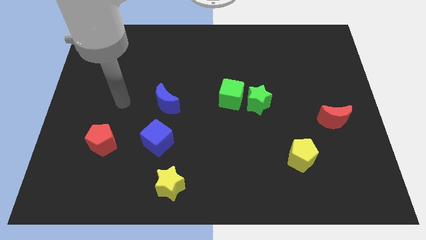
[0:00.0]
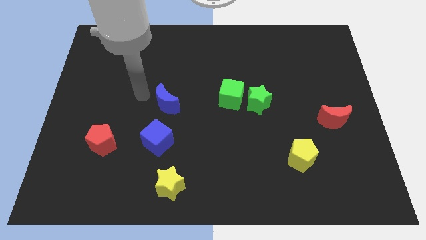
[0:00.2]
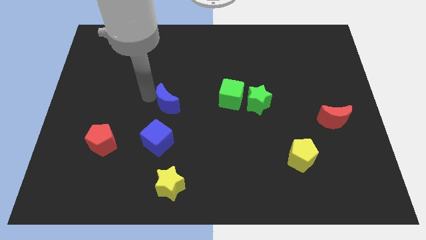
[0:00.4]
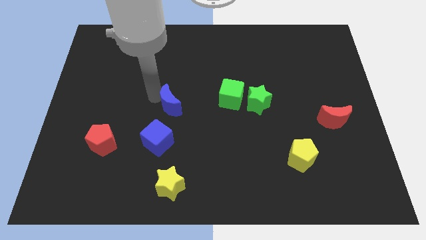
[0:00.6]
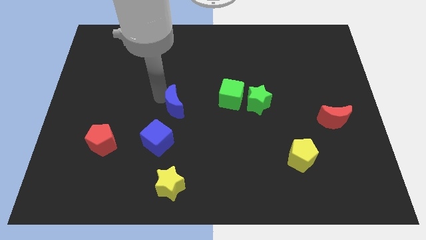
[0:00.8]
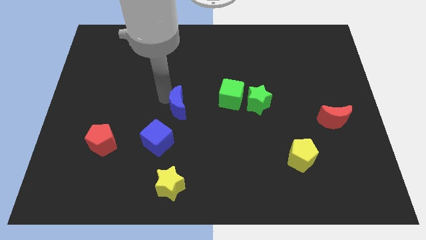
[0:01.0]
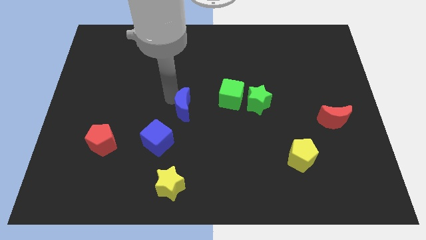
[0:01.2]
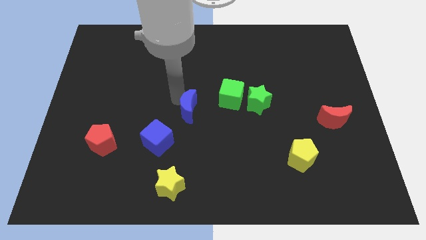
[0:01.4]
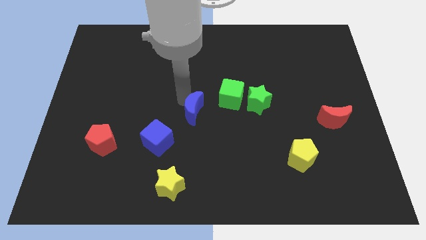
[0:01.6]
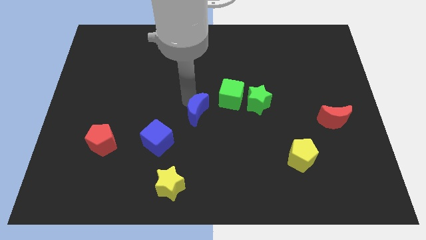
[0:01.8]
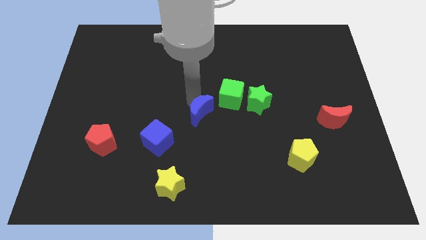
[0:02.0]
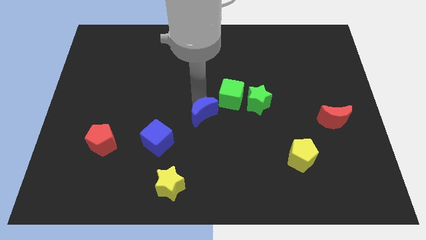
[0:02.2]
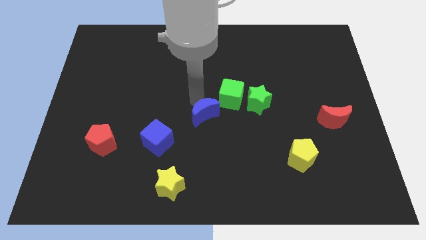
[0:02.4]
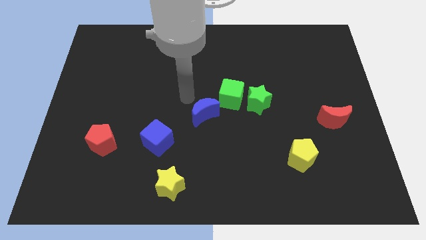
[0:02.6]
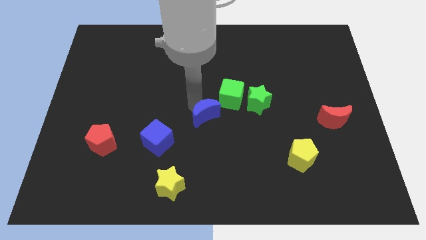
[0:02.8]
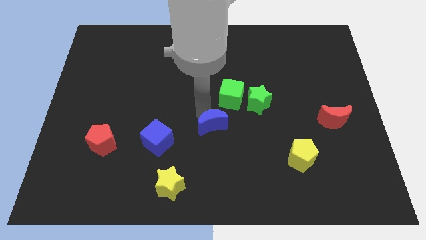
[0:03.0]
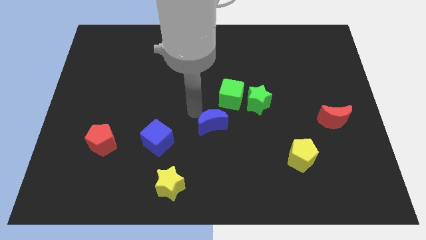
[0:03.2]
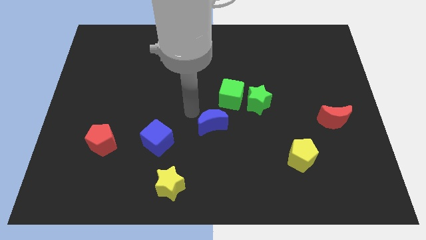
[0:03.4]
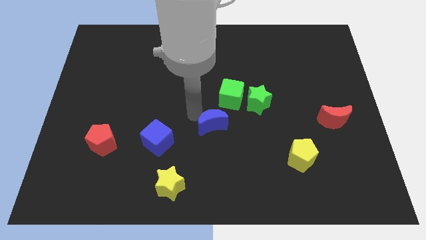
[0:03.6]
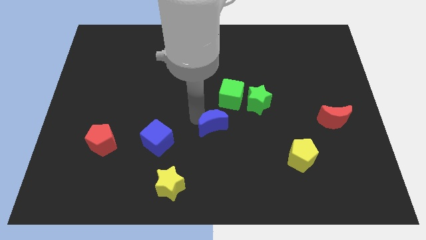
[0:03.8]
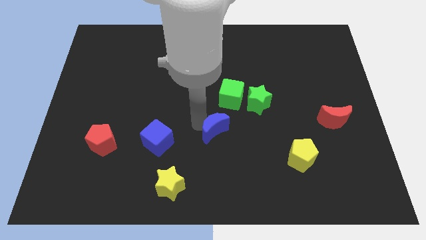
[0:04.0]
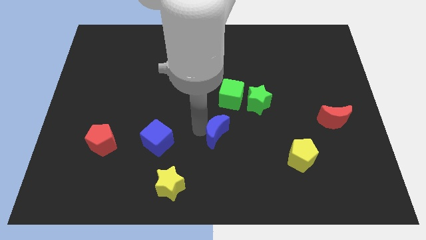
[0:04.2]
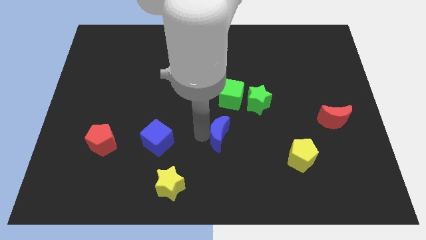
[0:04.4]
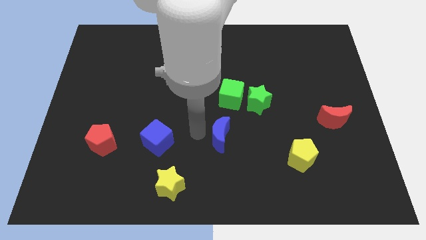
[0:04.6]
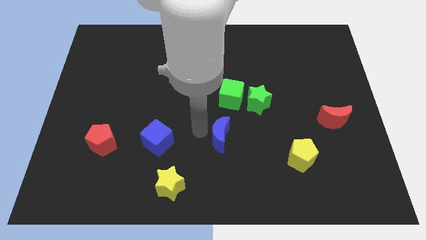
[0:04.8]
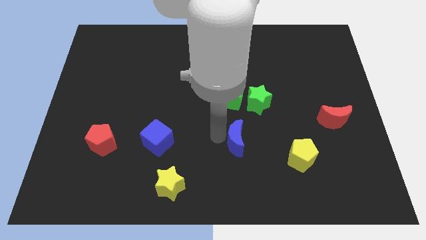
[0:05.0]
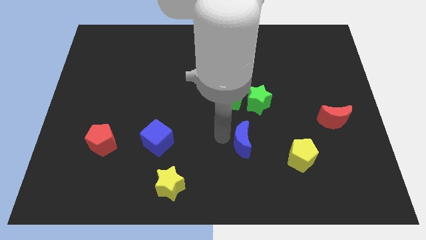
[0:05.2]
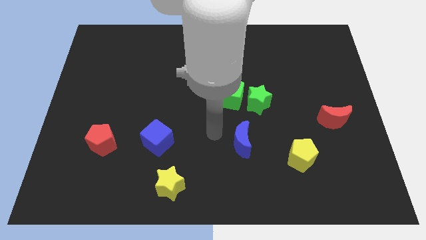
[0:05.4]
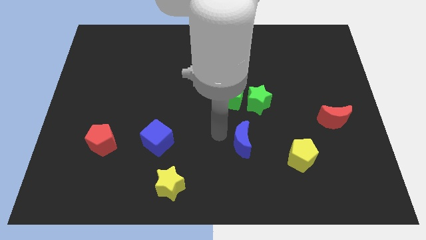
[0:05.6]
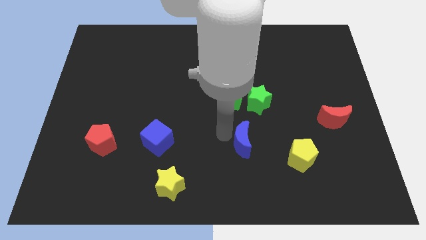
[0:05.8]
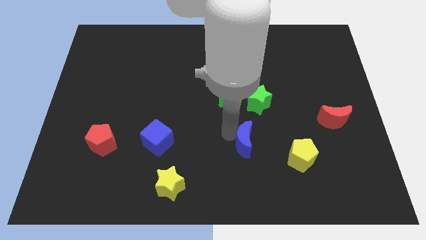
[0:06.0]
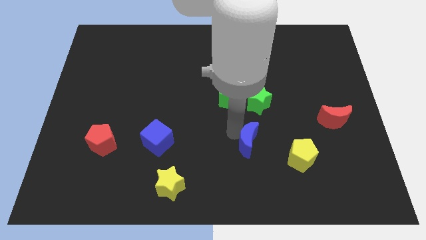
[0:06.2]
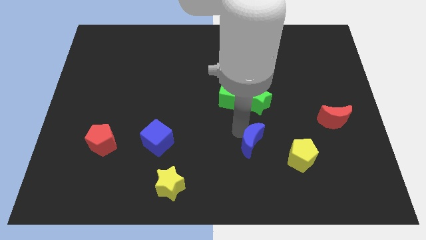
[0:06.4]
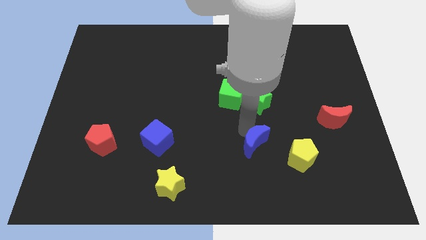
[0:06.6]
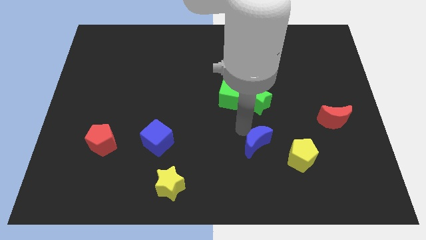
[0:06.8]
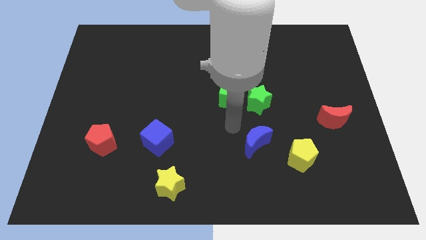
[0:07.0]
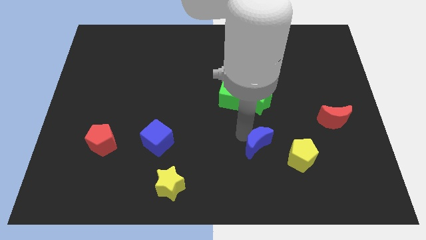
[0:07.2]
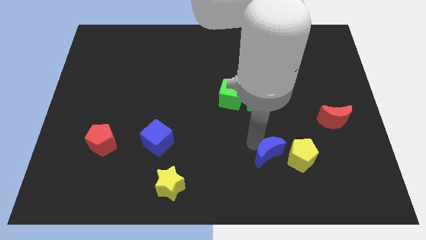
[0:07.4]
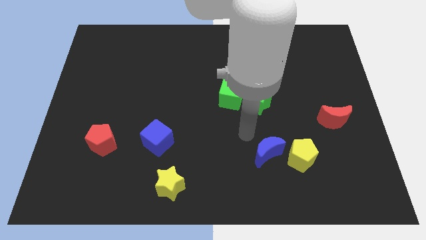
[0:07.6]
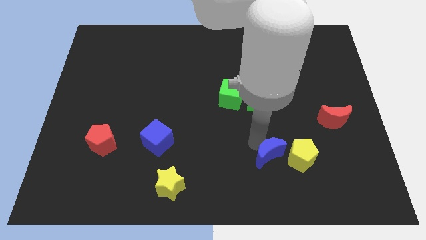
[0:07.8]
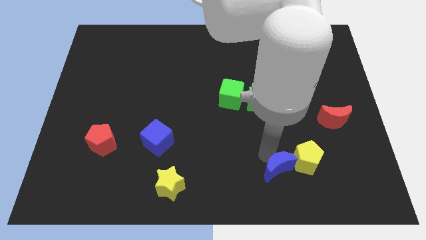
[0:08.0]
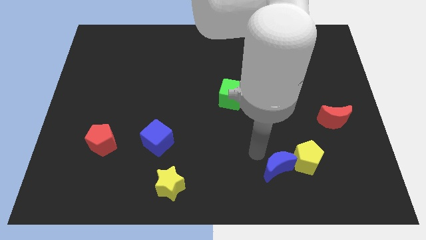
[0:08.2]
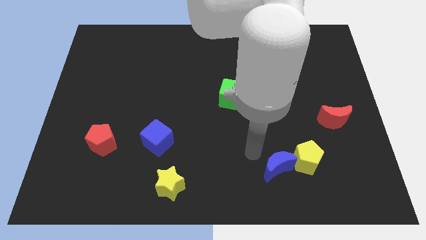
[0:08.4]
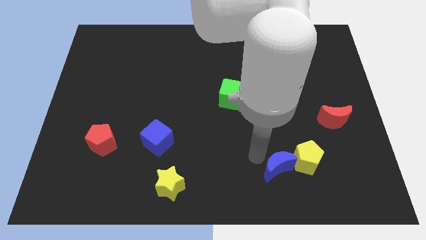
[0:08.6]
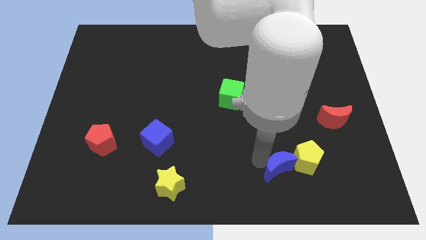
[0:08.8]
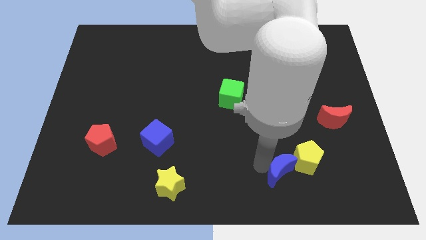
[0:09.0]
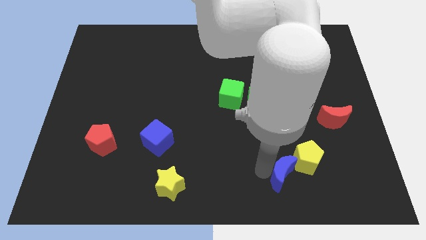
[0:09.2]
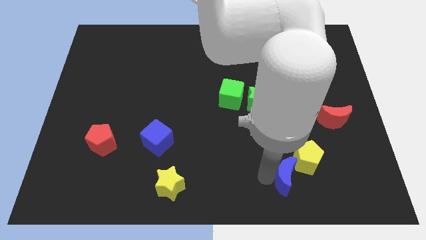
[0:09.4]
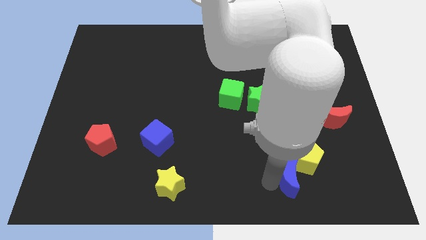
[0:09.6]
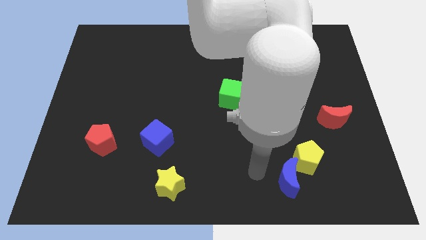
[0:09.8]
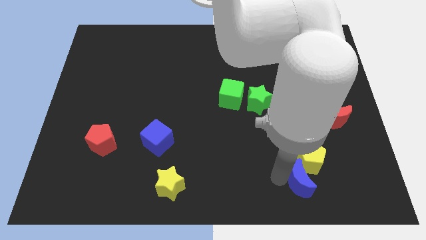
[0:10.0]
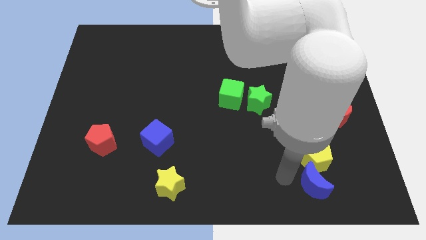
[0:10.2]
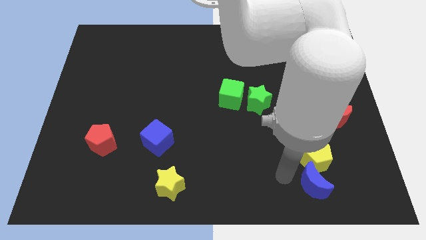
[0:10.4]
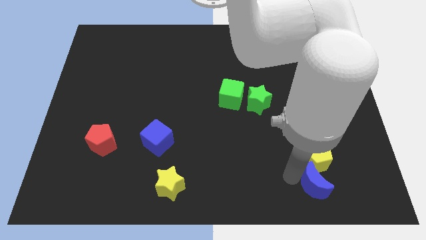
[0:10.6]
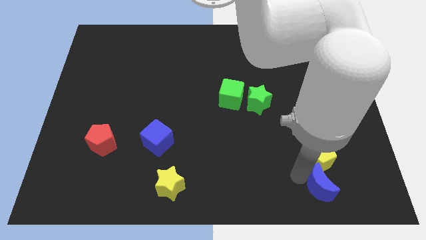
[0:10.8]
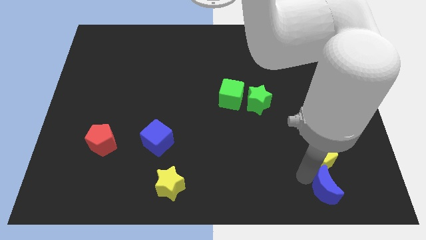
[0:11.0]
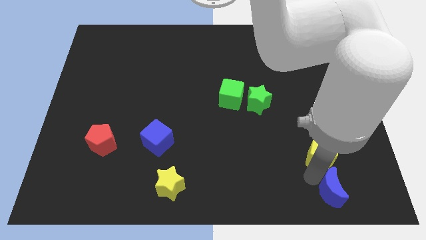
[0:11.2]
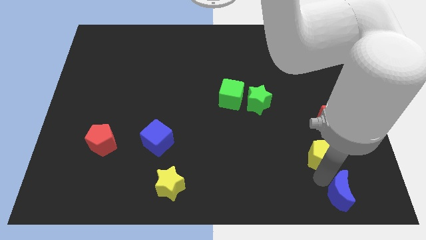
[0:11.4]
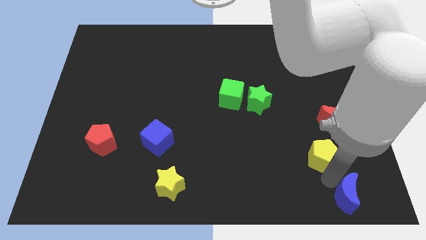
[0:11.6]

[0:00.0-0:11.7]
move the blue moon to the bottom right of the board
